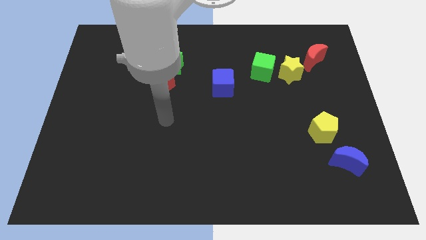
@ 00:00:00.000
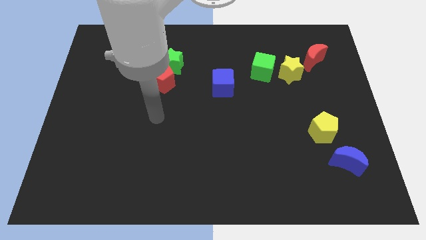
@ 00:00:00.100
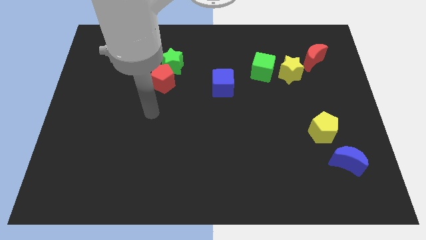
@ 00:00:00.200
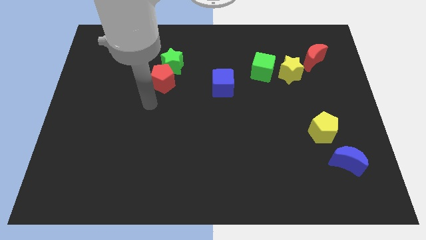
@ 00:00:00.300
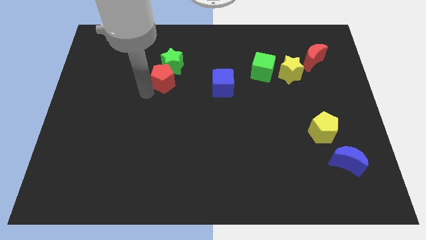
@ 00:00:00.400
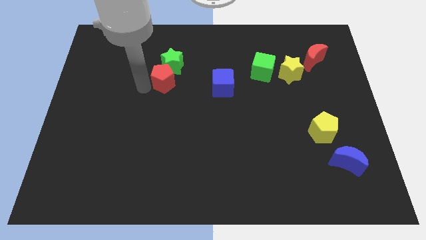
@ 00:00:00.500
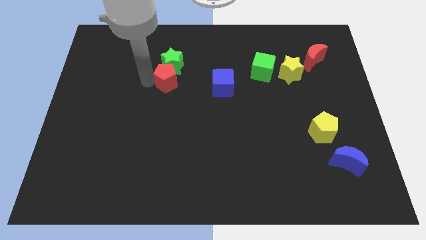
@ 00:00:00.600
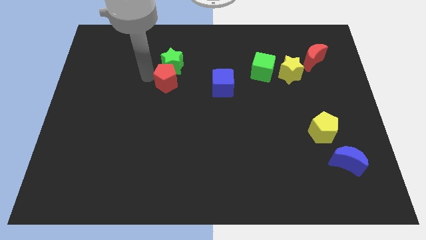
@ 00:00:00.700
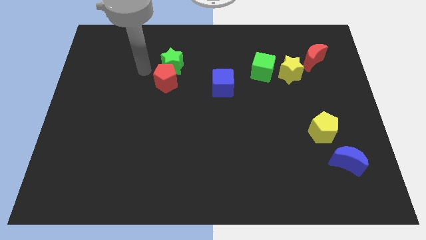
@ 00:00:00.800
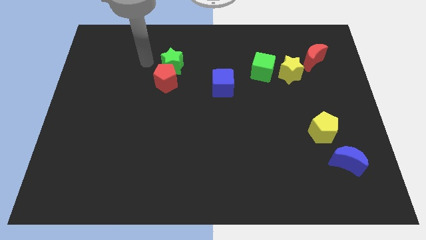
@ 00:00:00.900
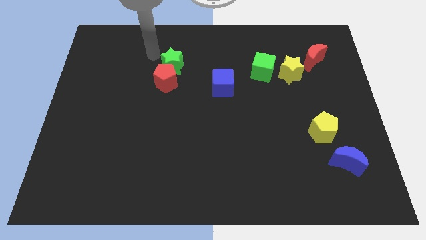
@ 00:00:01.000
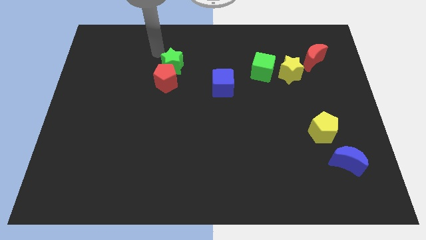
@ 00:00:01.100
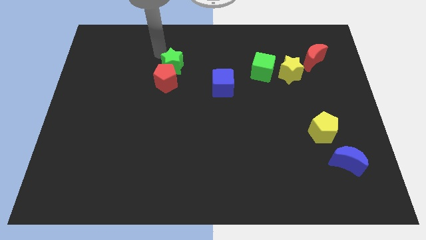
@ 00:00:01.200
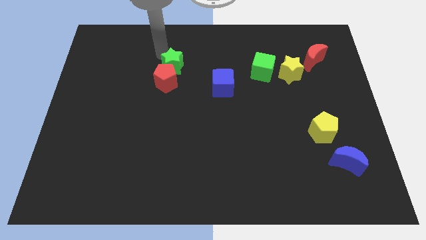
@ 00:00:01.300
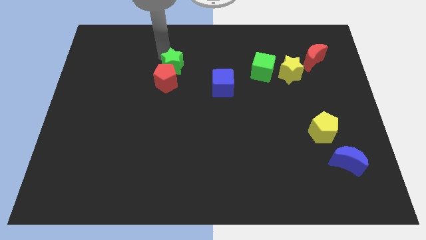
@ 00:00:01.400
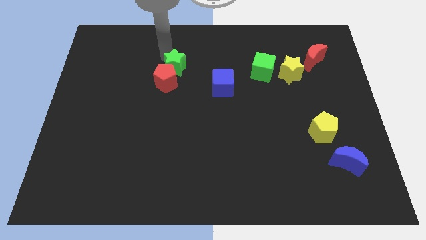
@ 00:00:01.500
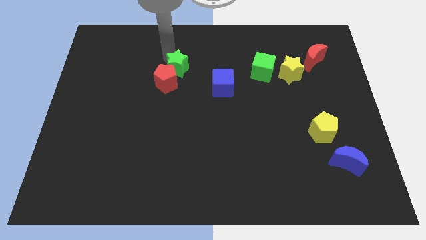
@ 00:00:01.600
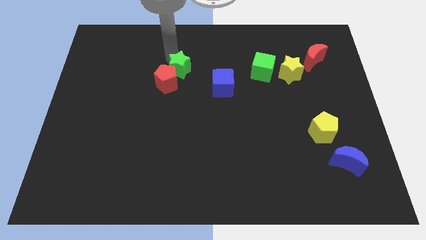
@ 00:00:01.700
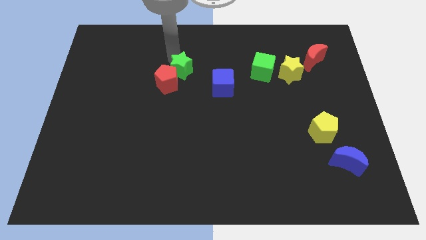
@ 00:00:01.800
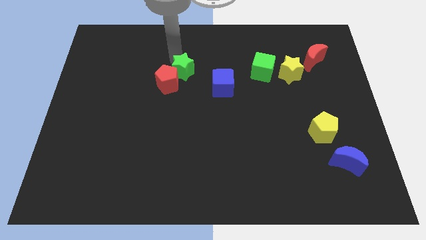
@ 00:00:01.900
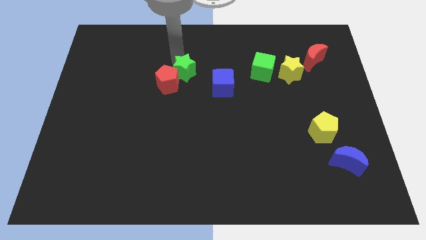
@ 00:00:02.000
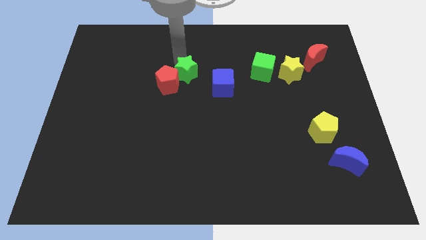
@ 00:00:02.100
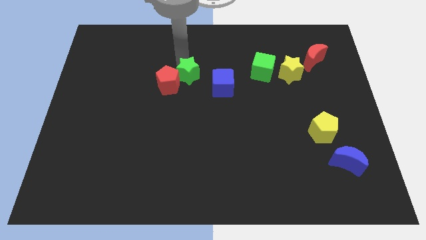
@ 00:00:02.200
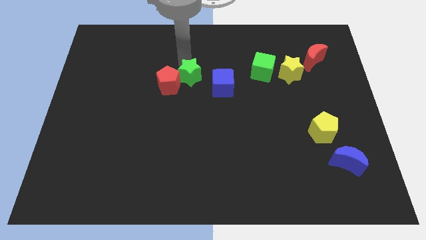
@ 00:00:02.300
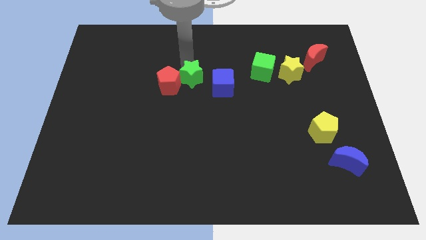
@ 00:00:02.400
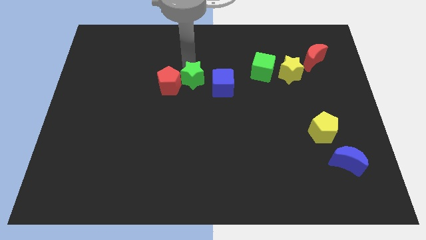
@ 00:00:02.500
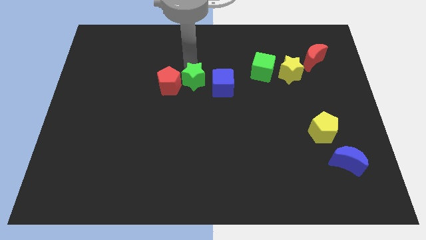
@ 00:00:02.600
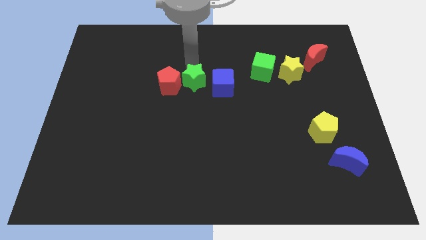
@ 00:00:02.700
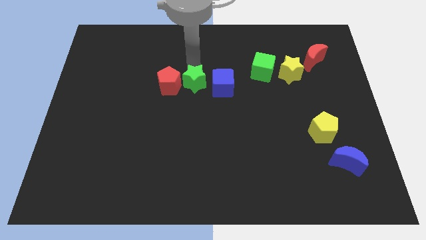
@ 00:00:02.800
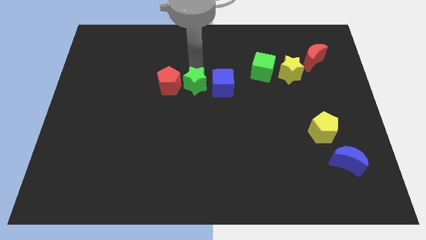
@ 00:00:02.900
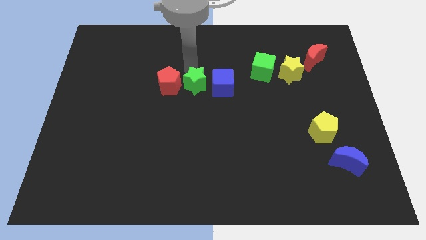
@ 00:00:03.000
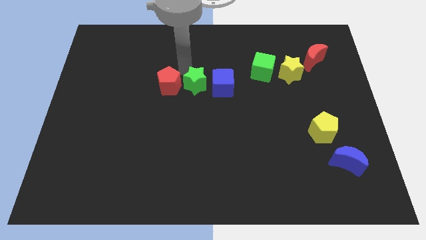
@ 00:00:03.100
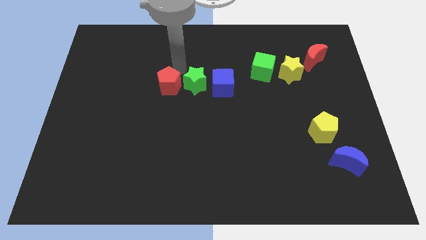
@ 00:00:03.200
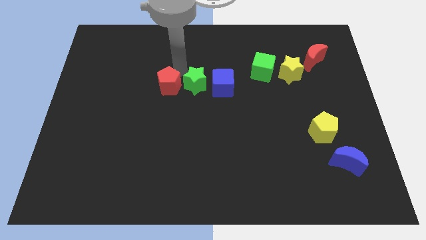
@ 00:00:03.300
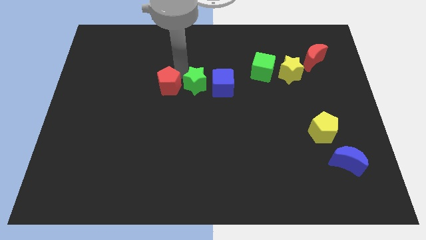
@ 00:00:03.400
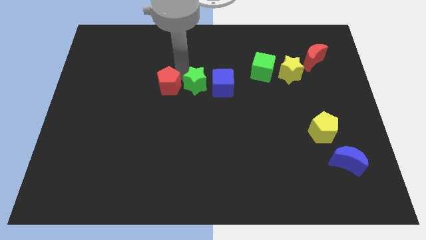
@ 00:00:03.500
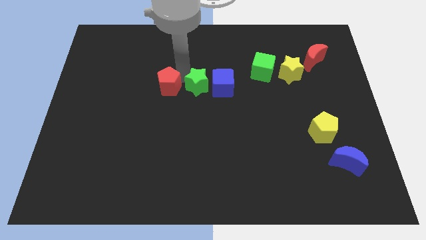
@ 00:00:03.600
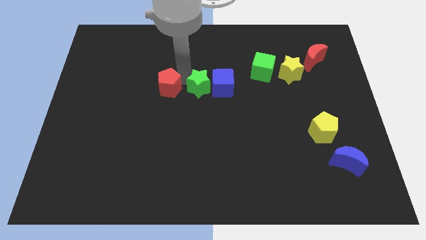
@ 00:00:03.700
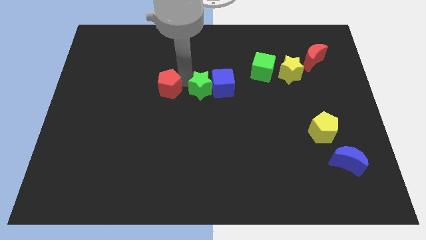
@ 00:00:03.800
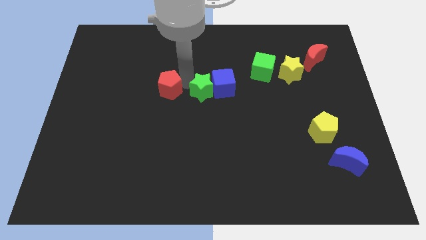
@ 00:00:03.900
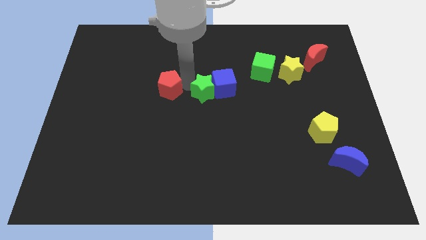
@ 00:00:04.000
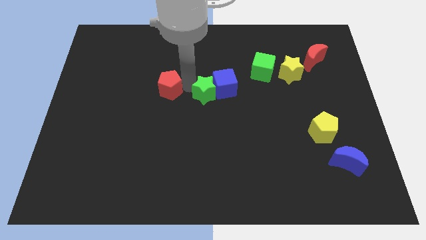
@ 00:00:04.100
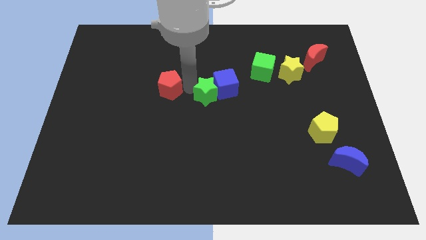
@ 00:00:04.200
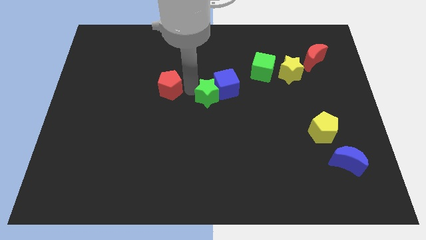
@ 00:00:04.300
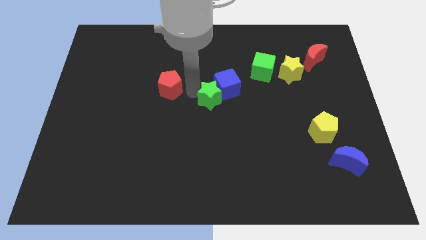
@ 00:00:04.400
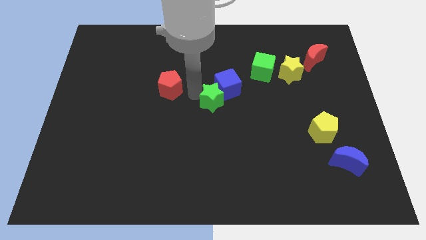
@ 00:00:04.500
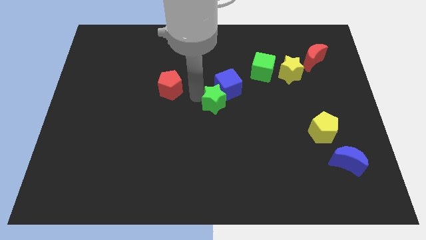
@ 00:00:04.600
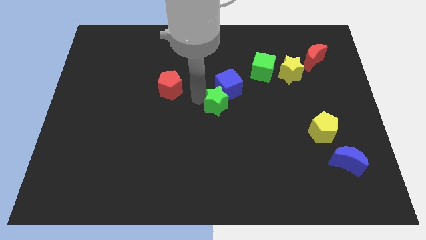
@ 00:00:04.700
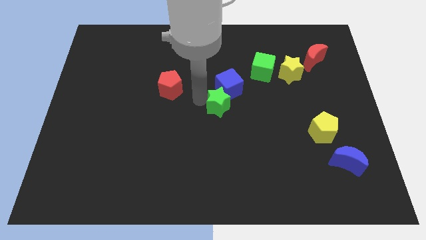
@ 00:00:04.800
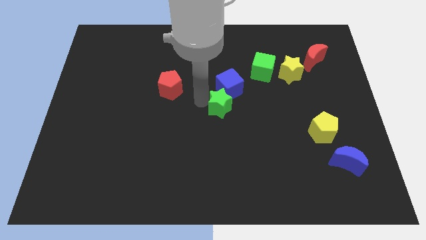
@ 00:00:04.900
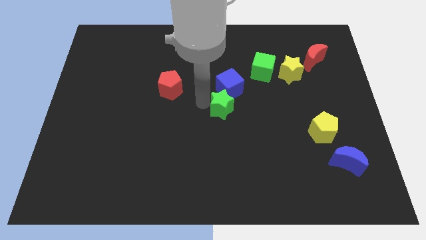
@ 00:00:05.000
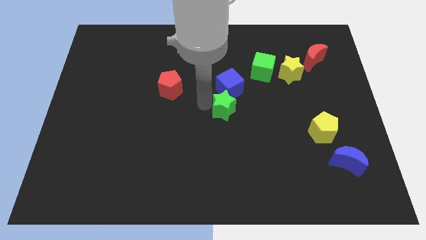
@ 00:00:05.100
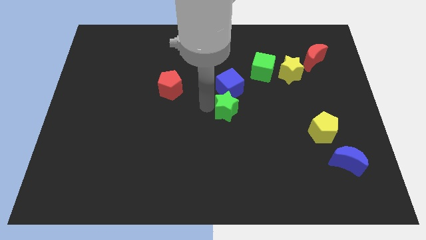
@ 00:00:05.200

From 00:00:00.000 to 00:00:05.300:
move the green star down and then to the right

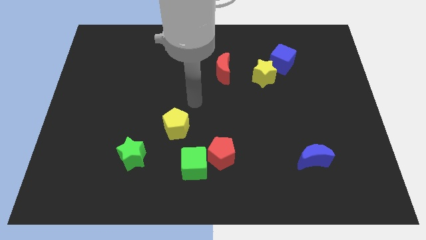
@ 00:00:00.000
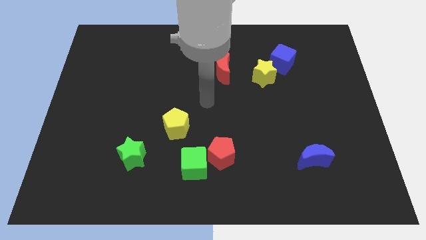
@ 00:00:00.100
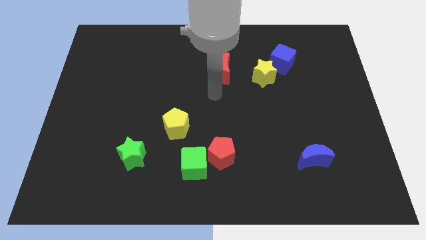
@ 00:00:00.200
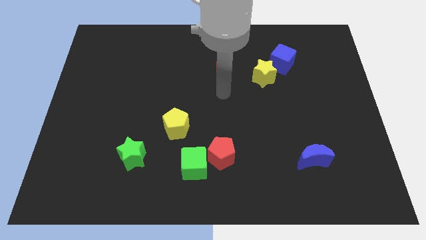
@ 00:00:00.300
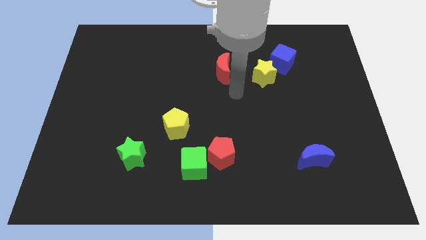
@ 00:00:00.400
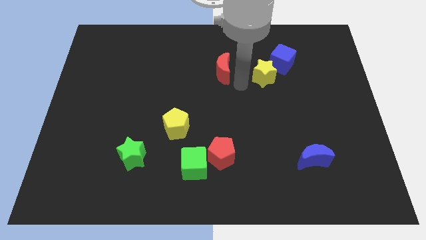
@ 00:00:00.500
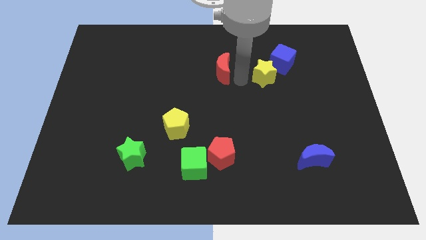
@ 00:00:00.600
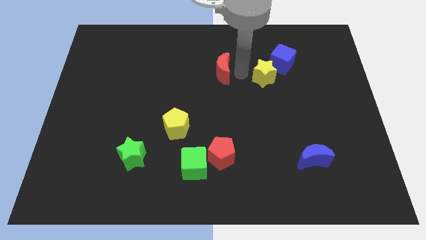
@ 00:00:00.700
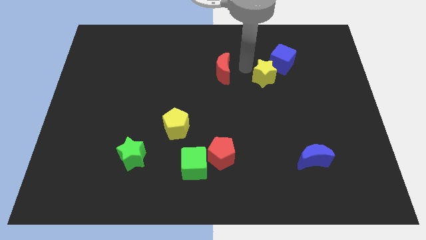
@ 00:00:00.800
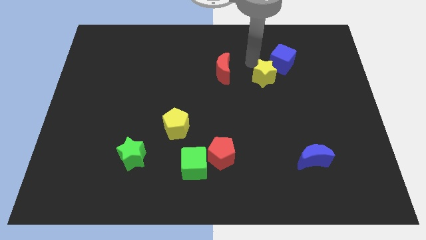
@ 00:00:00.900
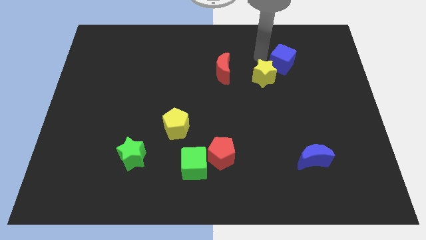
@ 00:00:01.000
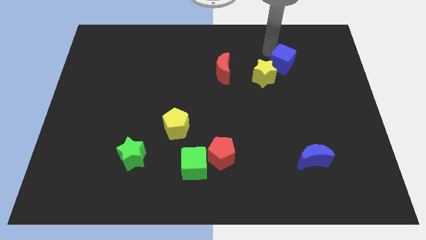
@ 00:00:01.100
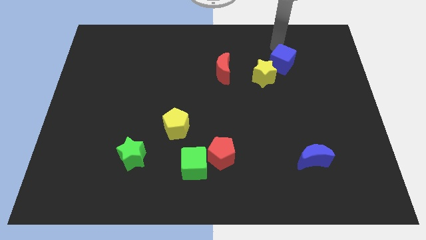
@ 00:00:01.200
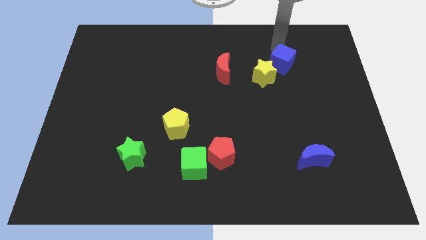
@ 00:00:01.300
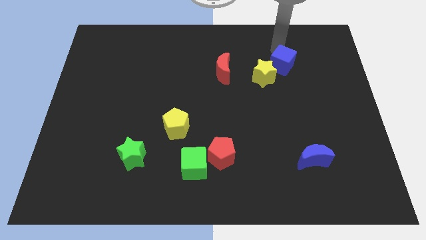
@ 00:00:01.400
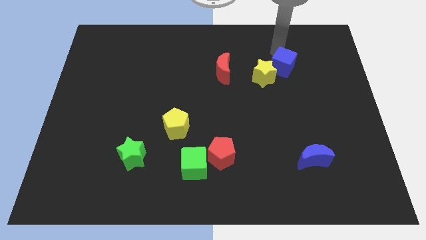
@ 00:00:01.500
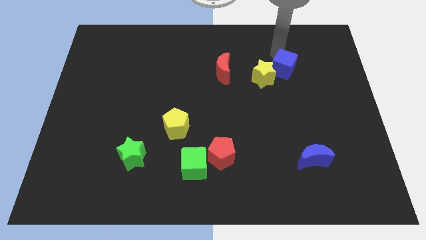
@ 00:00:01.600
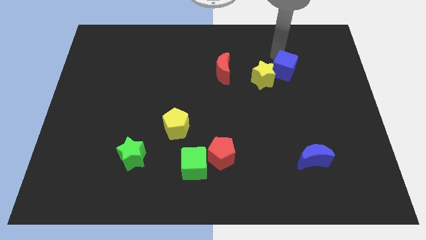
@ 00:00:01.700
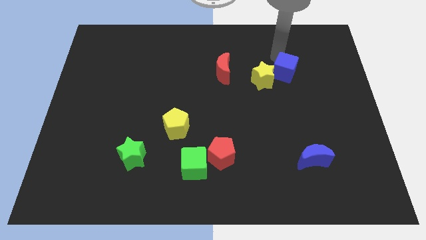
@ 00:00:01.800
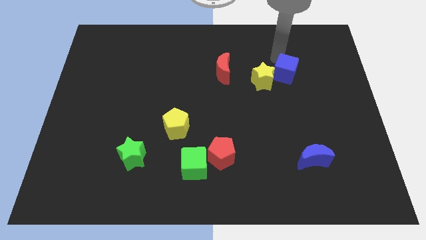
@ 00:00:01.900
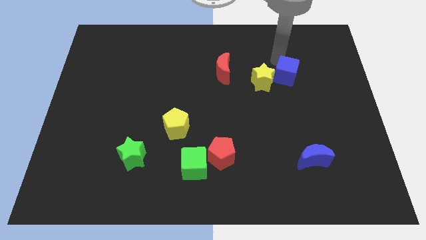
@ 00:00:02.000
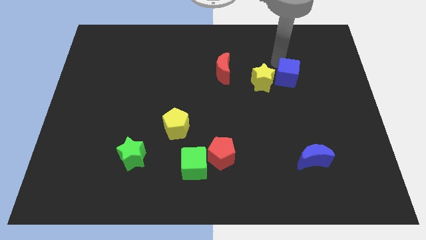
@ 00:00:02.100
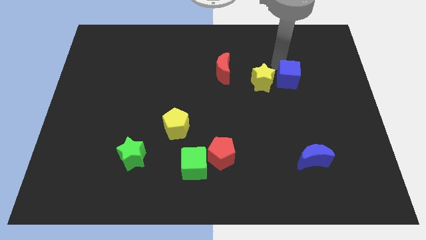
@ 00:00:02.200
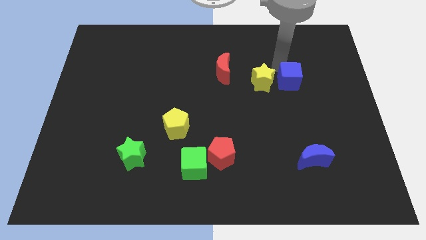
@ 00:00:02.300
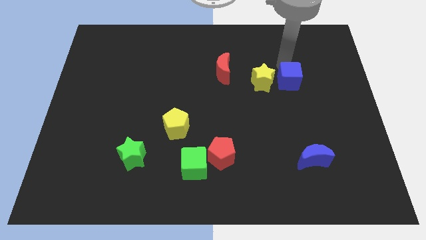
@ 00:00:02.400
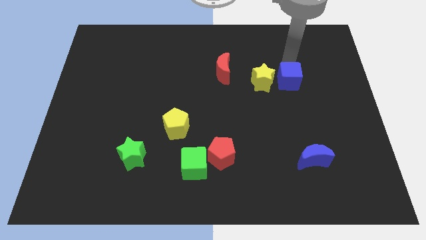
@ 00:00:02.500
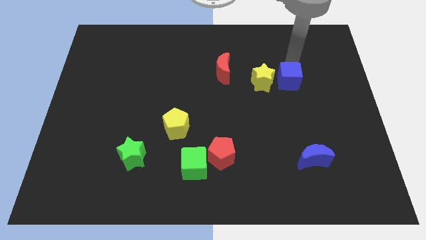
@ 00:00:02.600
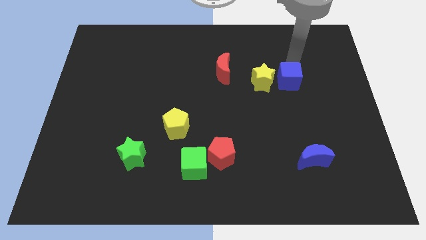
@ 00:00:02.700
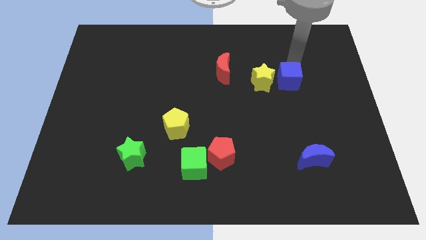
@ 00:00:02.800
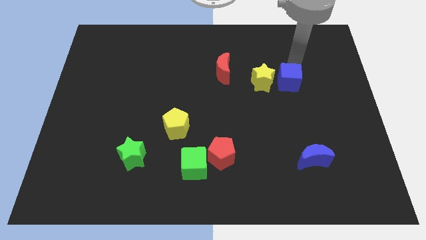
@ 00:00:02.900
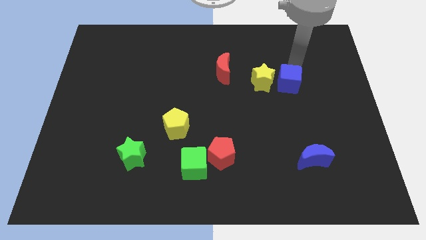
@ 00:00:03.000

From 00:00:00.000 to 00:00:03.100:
move the blue cube a bit downwards
